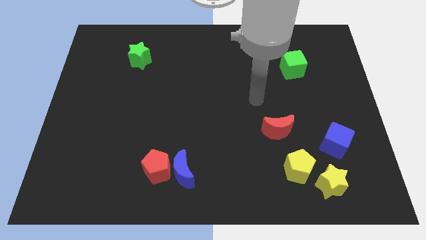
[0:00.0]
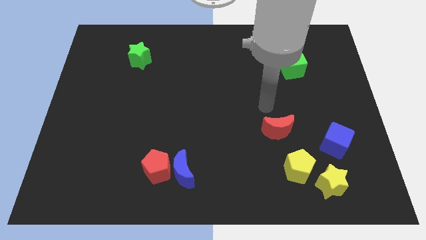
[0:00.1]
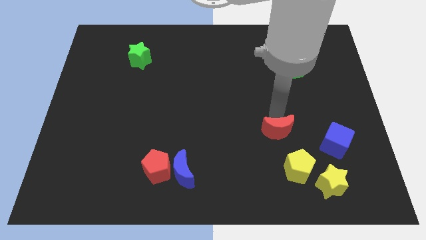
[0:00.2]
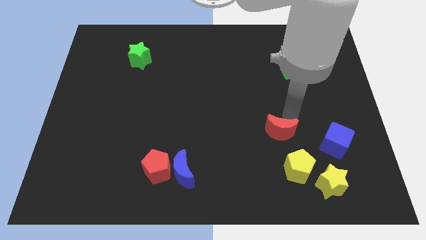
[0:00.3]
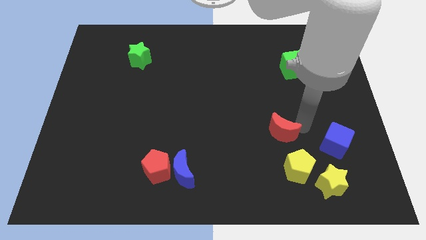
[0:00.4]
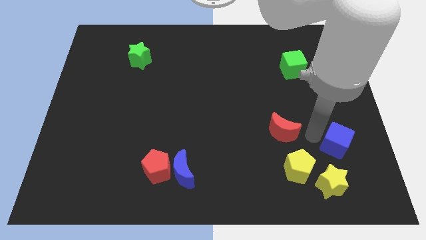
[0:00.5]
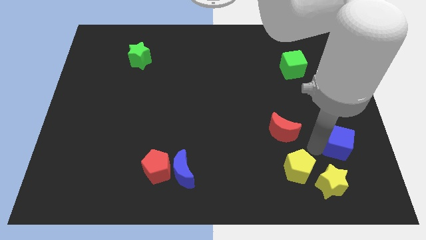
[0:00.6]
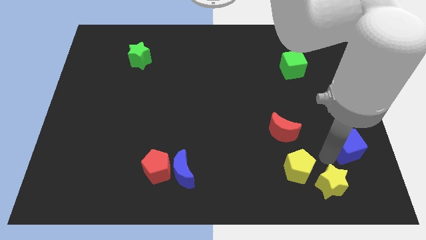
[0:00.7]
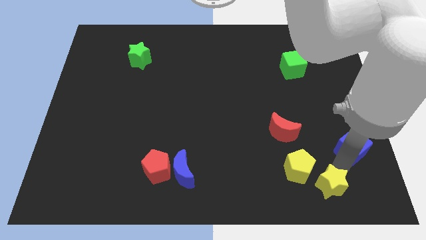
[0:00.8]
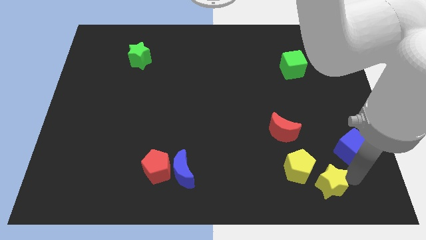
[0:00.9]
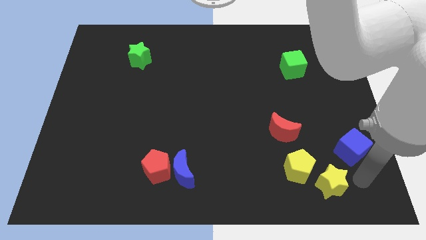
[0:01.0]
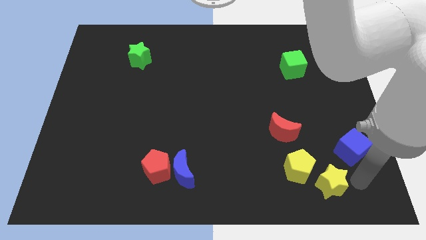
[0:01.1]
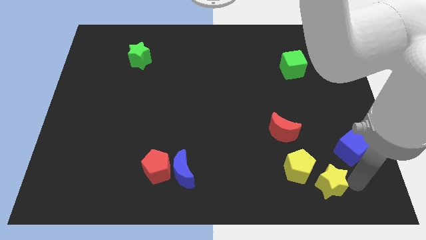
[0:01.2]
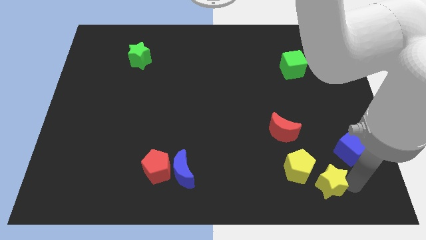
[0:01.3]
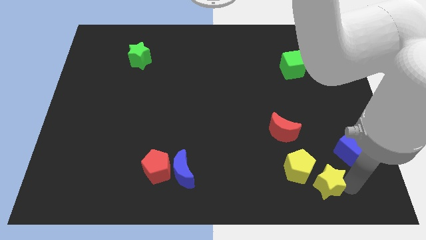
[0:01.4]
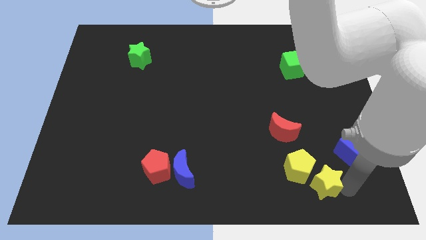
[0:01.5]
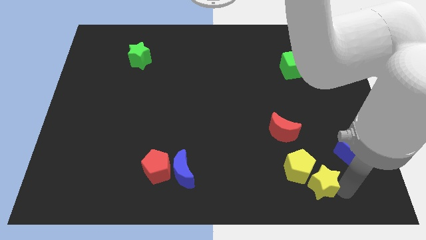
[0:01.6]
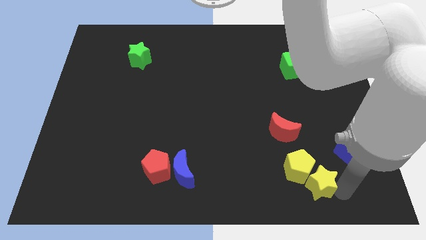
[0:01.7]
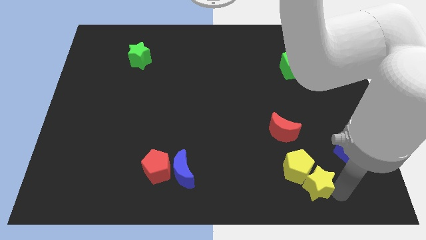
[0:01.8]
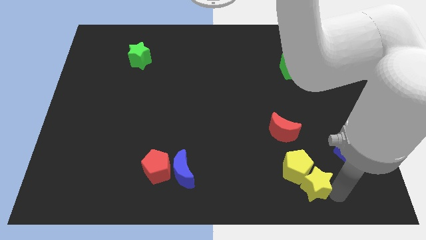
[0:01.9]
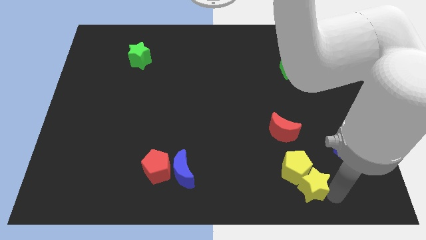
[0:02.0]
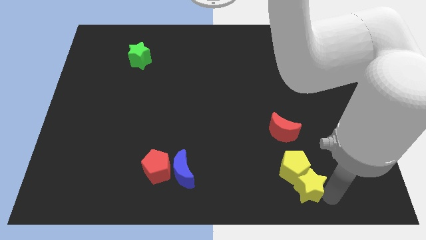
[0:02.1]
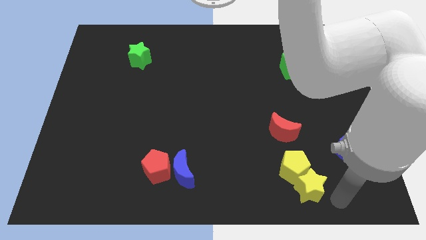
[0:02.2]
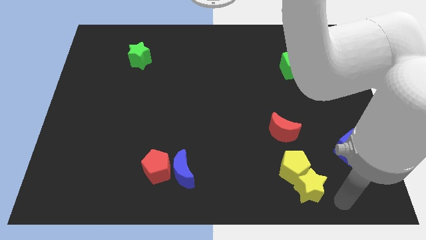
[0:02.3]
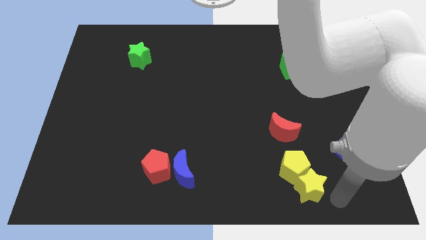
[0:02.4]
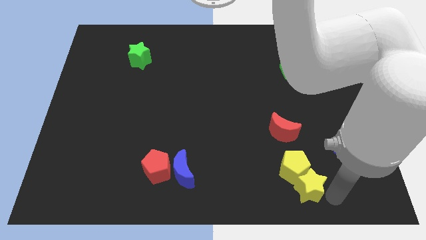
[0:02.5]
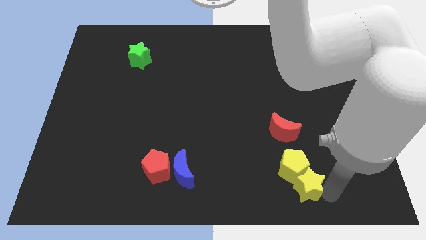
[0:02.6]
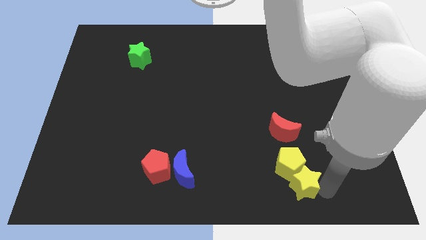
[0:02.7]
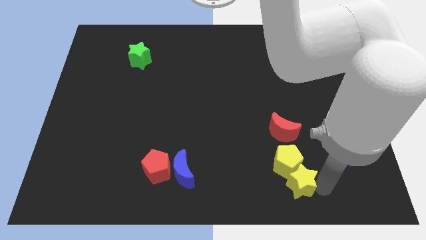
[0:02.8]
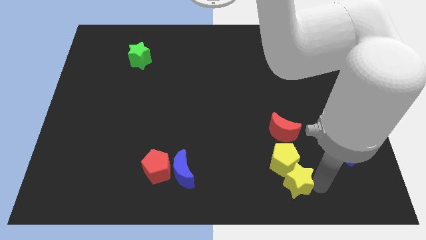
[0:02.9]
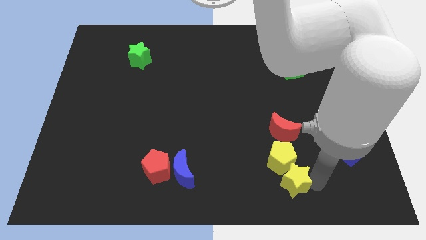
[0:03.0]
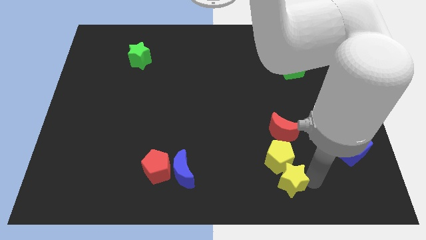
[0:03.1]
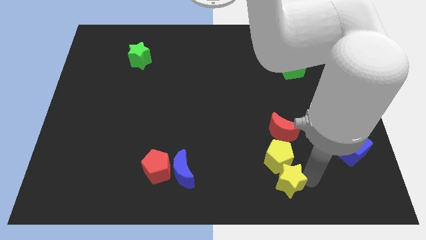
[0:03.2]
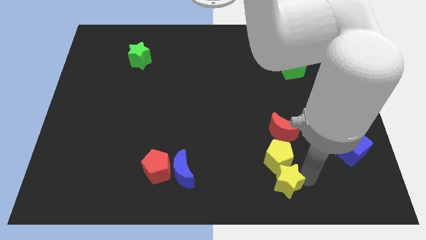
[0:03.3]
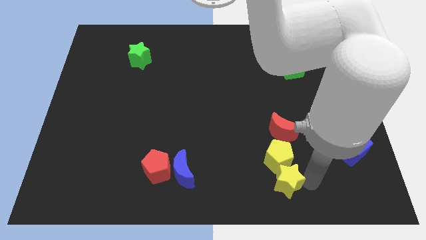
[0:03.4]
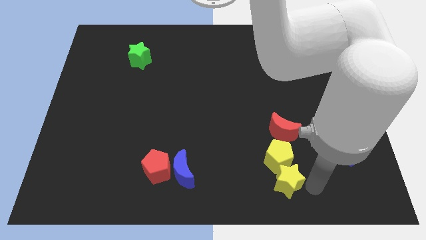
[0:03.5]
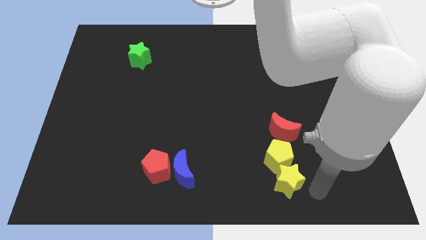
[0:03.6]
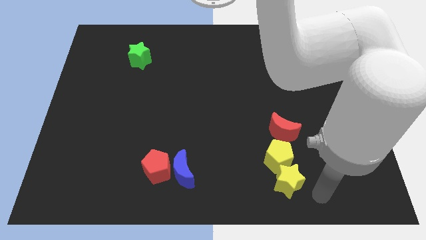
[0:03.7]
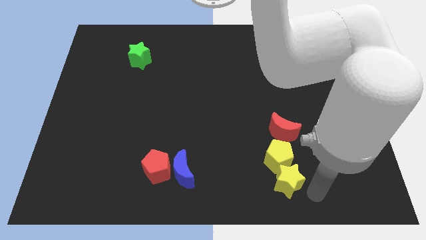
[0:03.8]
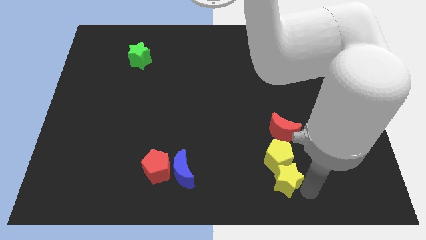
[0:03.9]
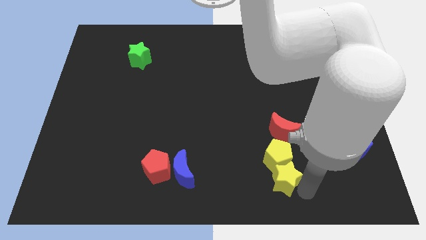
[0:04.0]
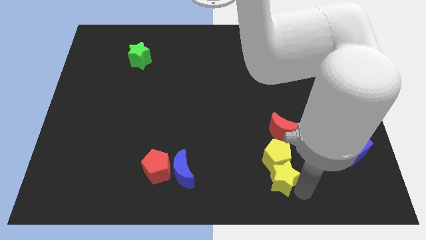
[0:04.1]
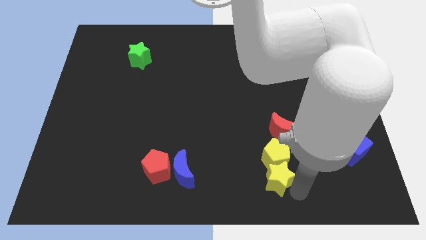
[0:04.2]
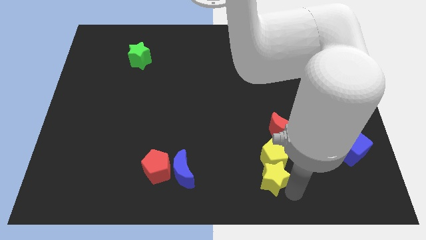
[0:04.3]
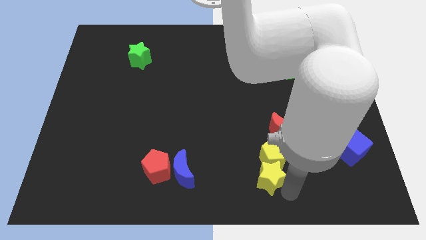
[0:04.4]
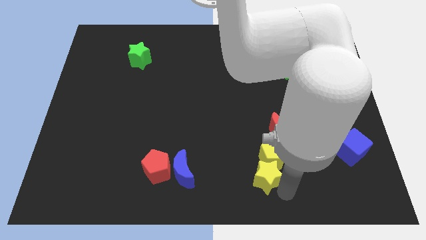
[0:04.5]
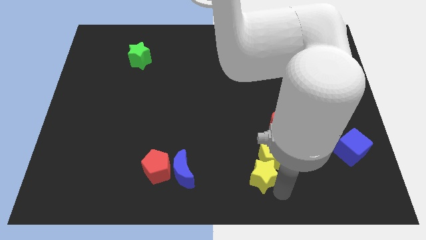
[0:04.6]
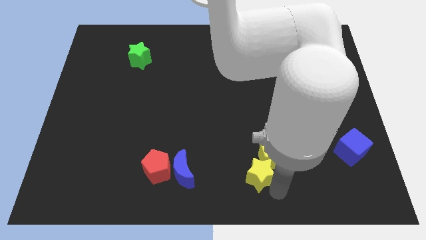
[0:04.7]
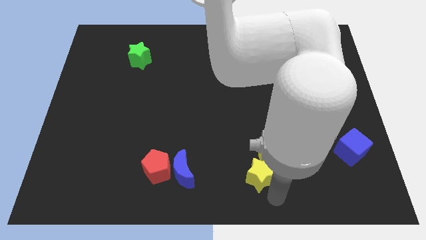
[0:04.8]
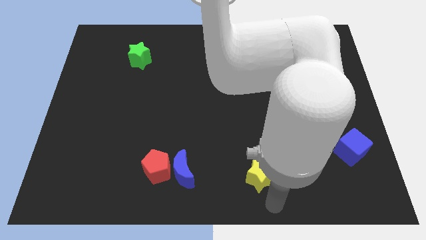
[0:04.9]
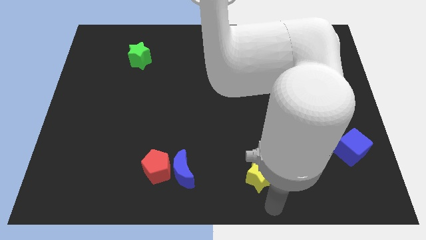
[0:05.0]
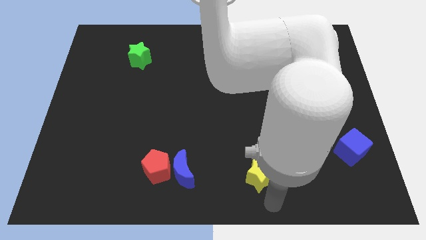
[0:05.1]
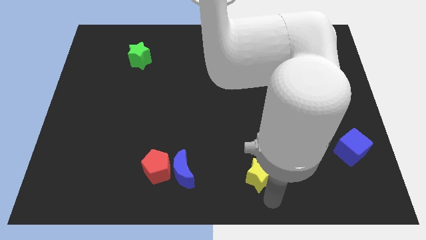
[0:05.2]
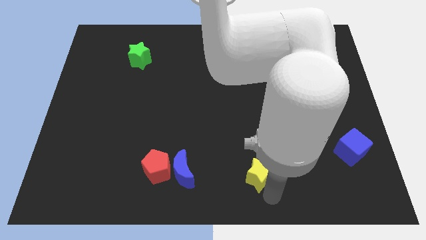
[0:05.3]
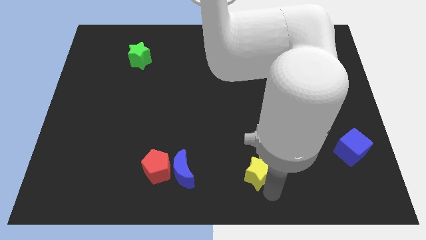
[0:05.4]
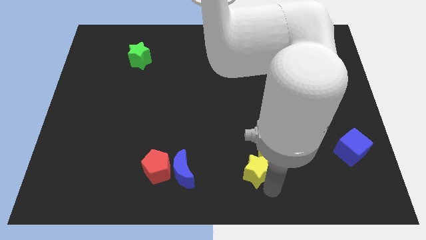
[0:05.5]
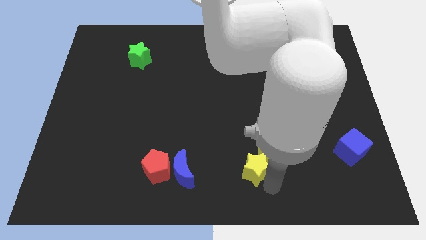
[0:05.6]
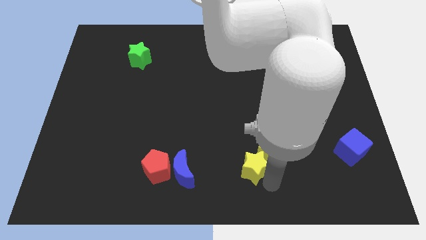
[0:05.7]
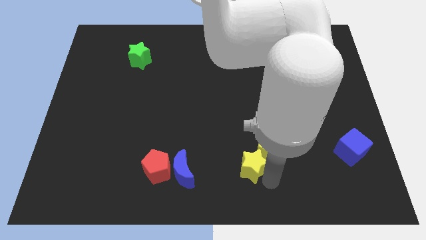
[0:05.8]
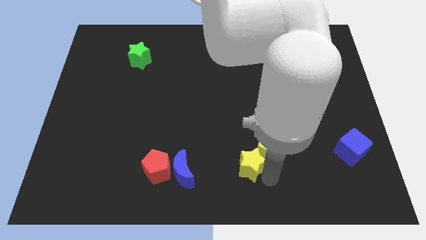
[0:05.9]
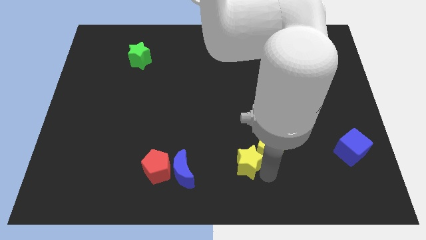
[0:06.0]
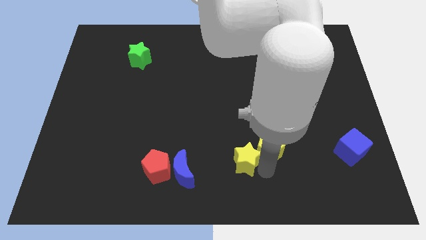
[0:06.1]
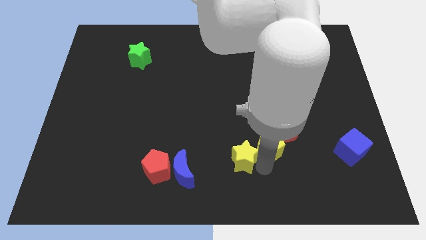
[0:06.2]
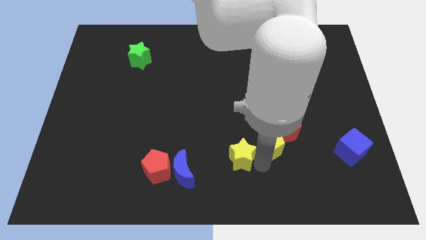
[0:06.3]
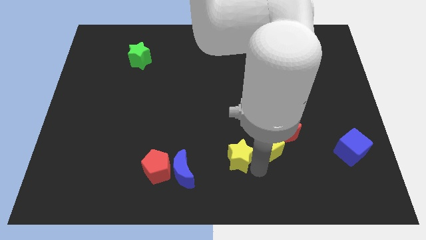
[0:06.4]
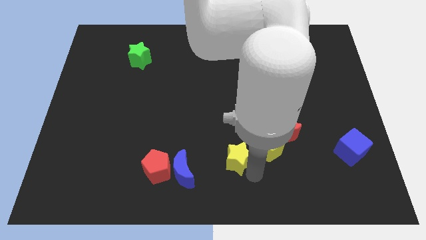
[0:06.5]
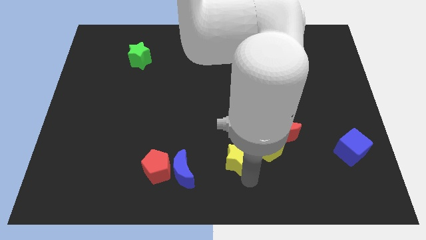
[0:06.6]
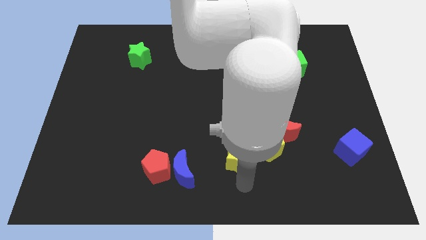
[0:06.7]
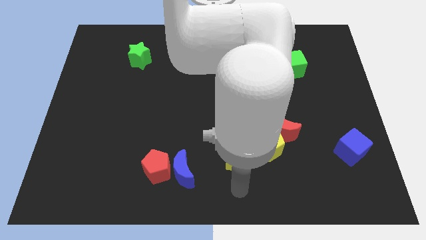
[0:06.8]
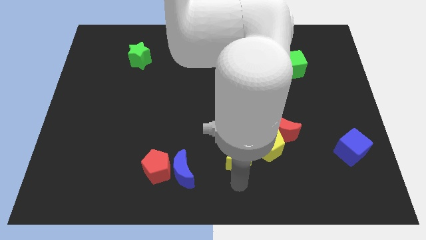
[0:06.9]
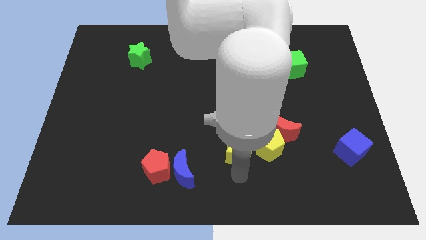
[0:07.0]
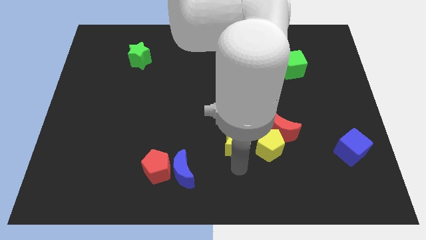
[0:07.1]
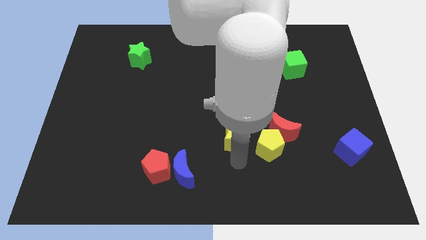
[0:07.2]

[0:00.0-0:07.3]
push the yellow star to the middle of the board
